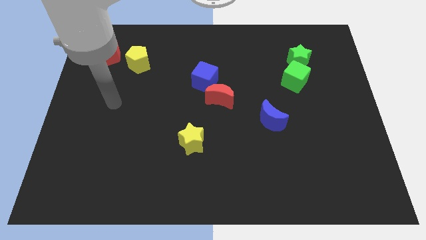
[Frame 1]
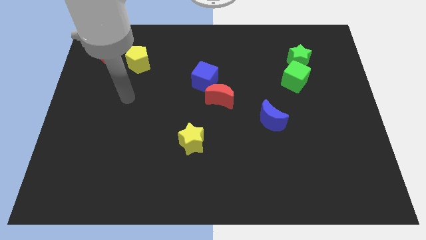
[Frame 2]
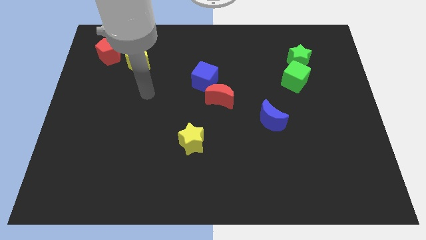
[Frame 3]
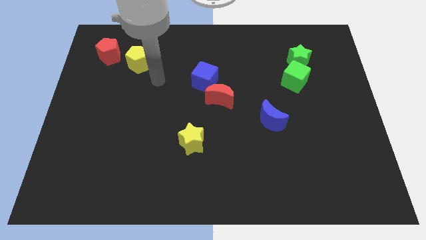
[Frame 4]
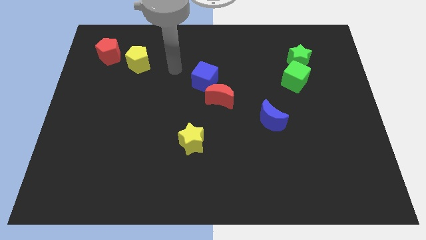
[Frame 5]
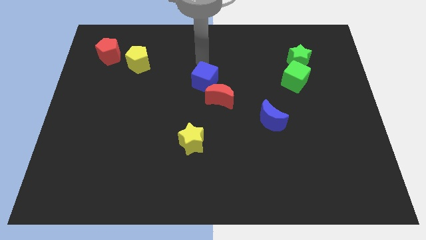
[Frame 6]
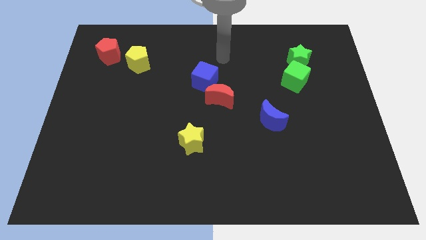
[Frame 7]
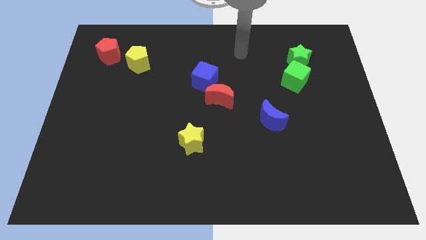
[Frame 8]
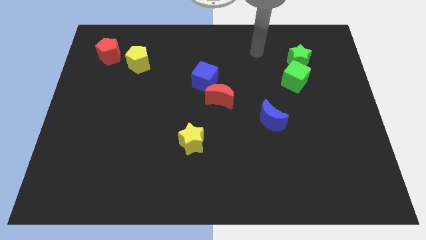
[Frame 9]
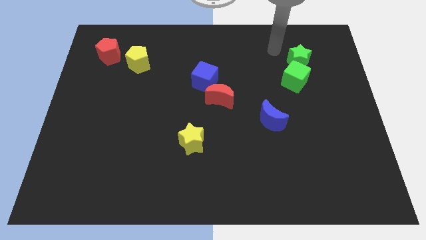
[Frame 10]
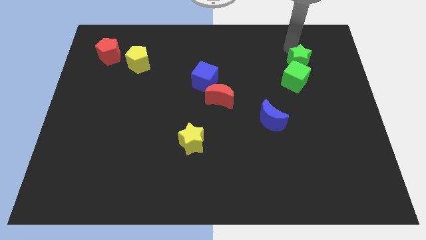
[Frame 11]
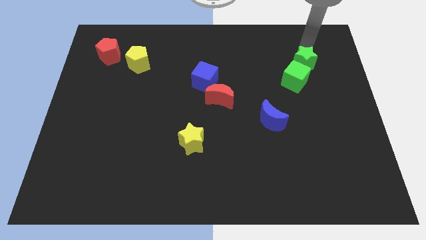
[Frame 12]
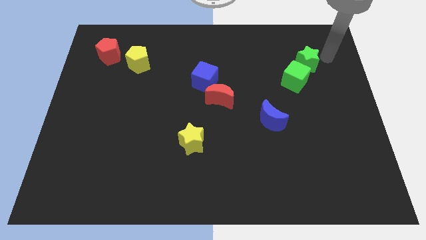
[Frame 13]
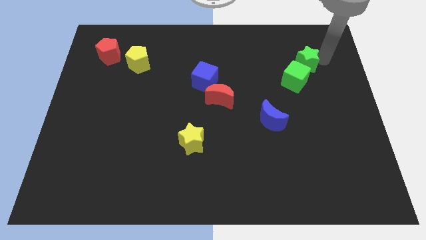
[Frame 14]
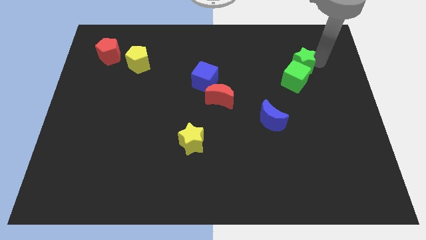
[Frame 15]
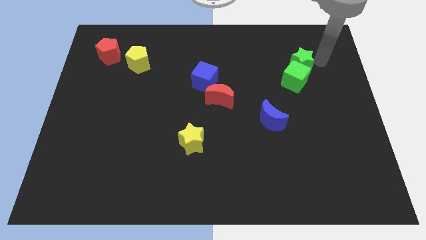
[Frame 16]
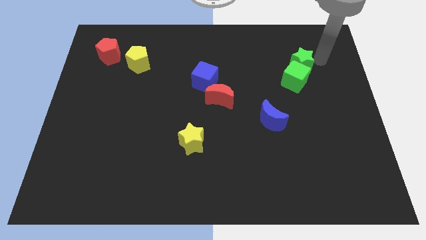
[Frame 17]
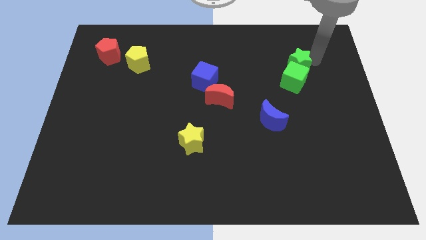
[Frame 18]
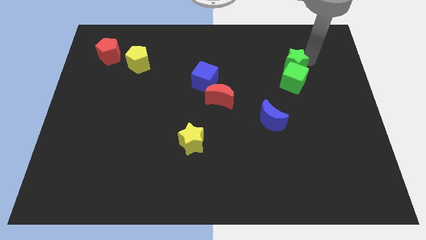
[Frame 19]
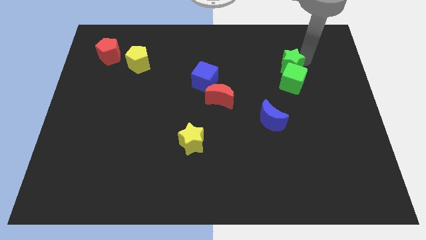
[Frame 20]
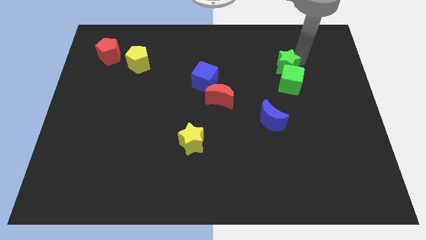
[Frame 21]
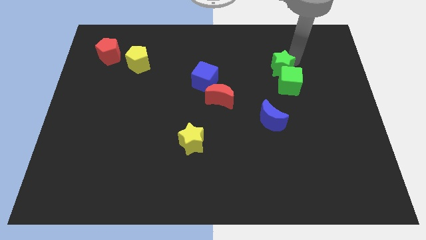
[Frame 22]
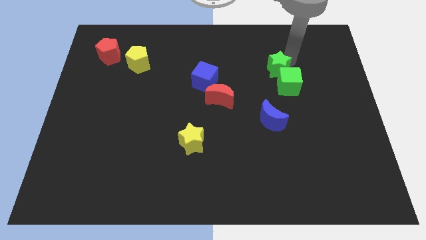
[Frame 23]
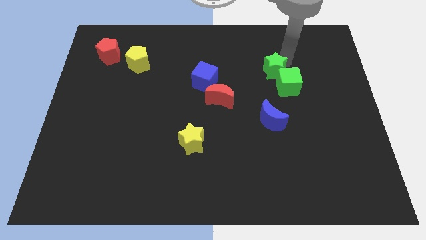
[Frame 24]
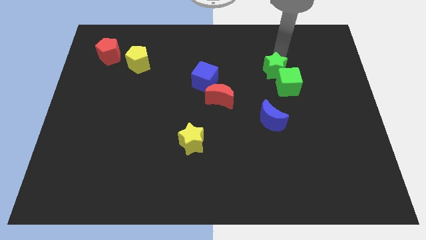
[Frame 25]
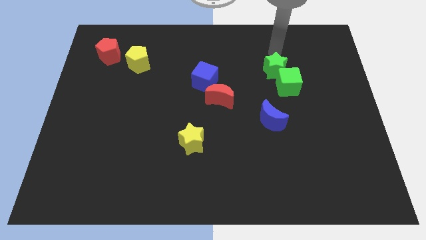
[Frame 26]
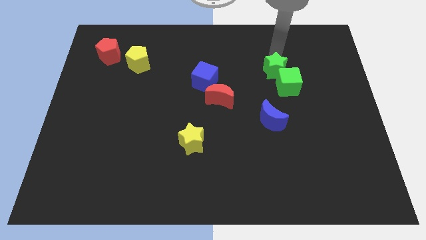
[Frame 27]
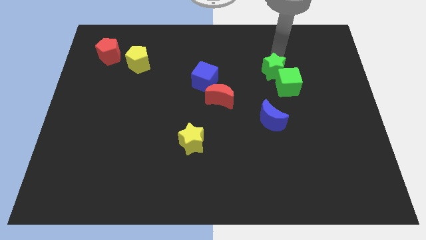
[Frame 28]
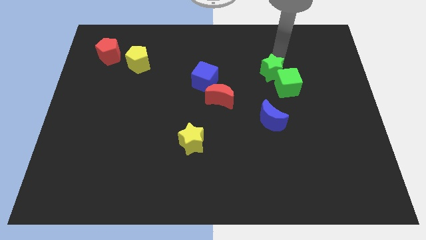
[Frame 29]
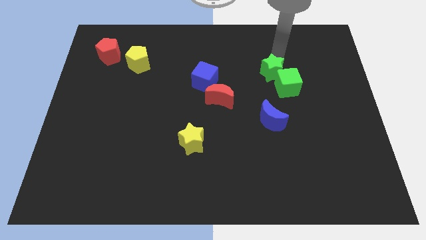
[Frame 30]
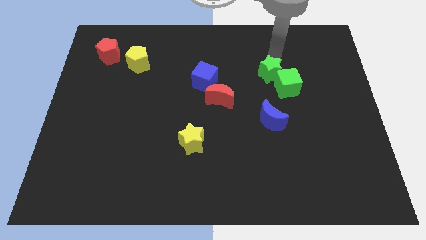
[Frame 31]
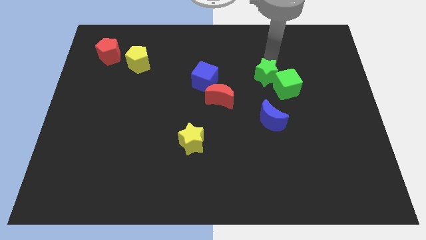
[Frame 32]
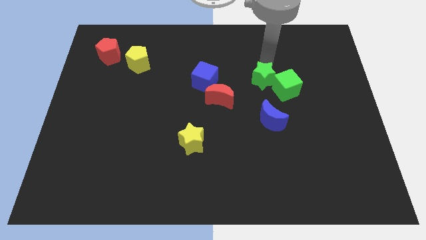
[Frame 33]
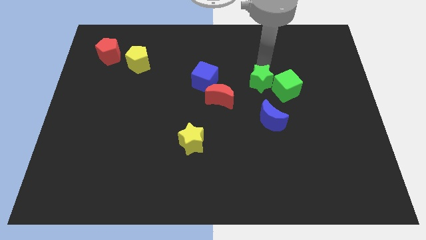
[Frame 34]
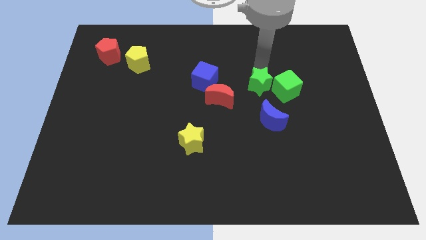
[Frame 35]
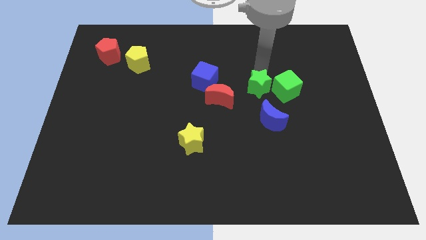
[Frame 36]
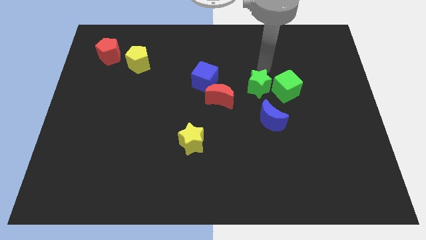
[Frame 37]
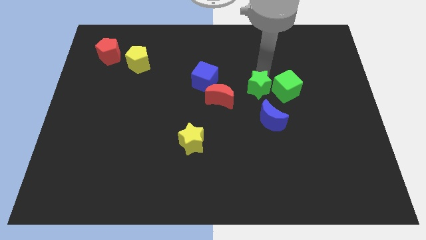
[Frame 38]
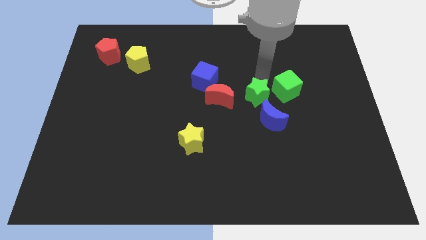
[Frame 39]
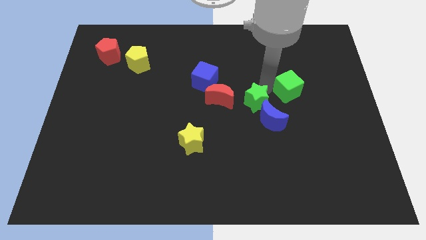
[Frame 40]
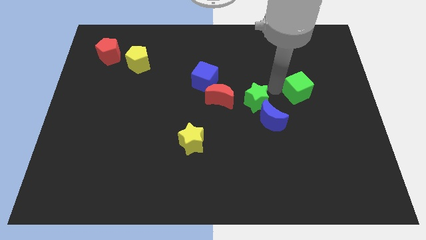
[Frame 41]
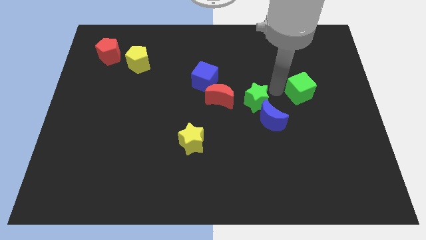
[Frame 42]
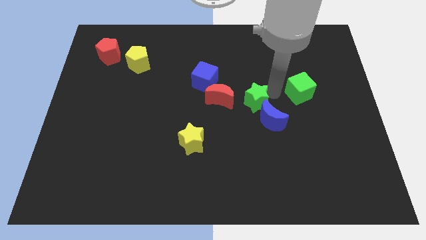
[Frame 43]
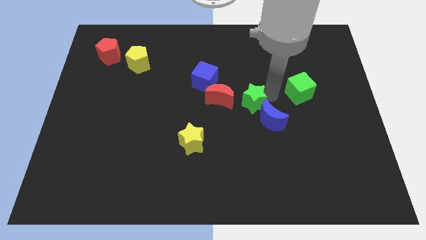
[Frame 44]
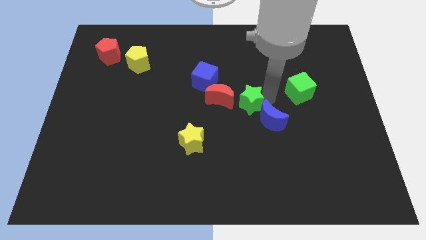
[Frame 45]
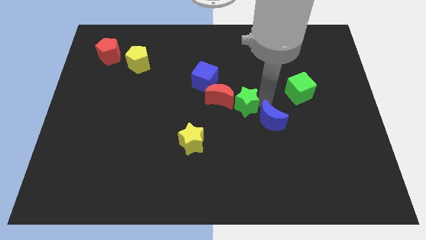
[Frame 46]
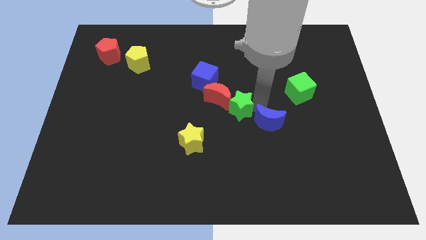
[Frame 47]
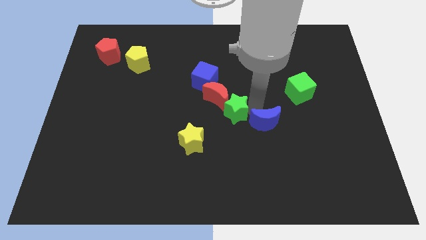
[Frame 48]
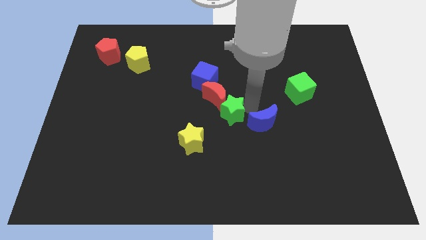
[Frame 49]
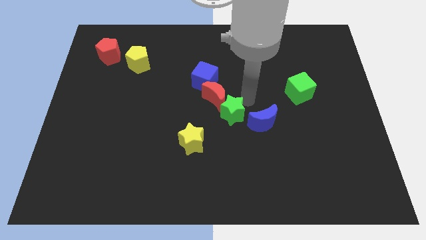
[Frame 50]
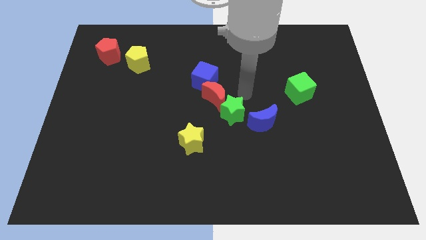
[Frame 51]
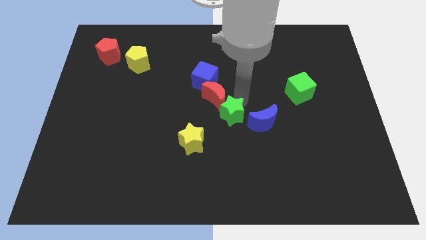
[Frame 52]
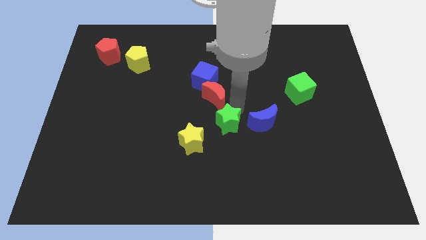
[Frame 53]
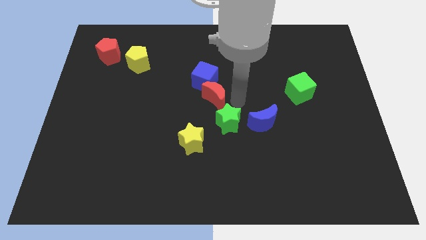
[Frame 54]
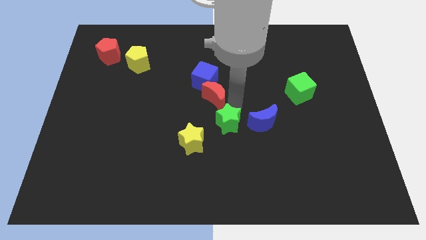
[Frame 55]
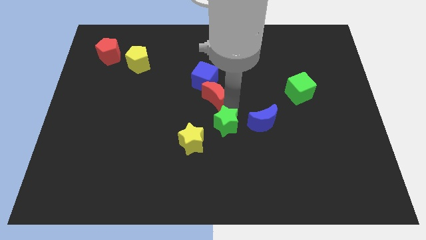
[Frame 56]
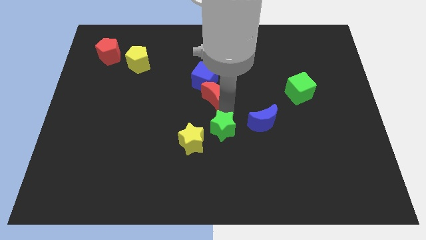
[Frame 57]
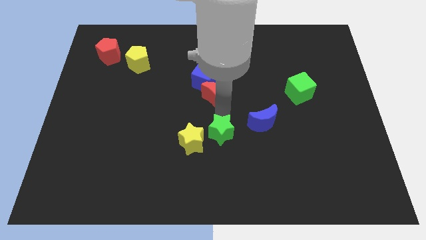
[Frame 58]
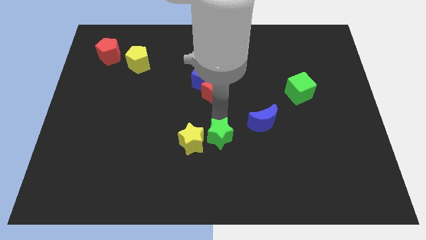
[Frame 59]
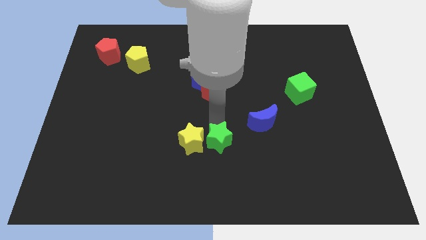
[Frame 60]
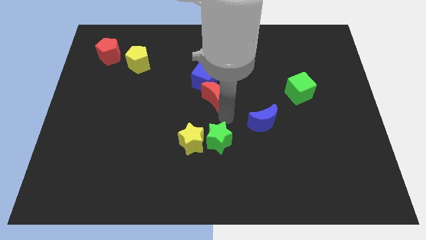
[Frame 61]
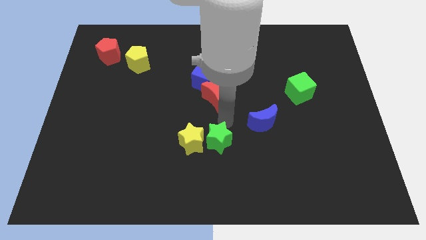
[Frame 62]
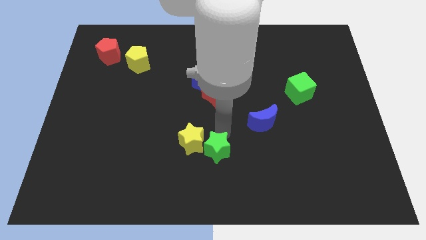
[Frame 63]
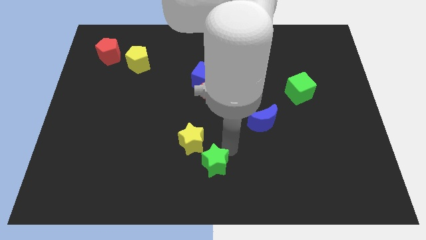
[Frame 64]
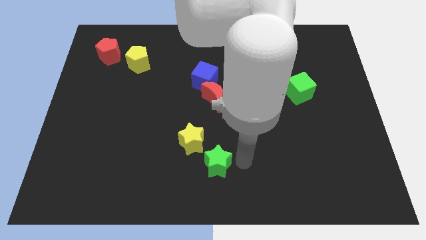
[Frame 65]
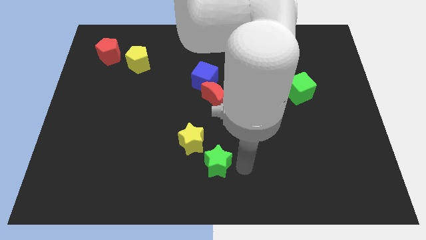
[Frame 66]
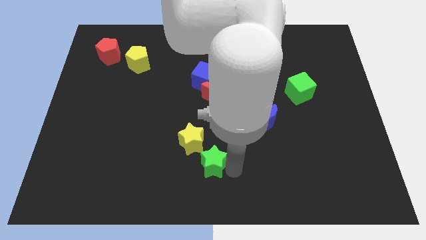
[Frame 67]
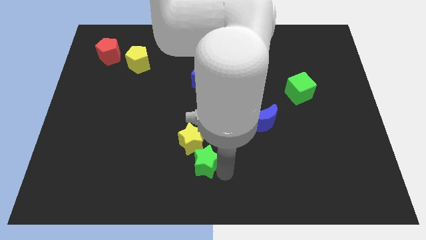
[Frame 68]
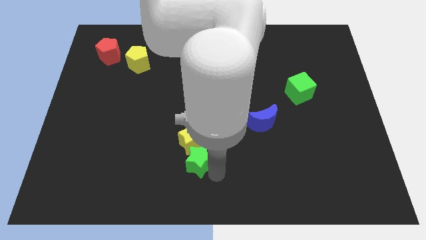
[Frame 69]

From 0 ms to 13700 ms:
slide the green star to the bottom left side of the yellow star
